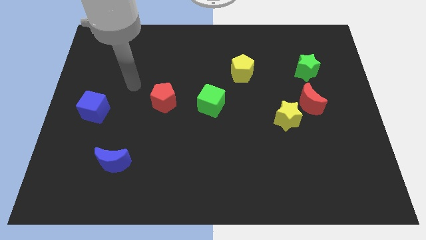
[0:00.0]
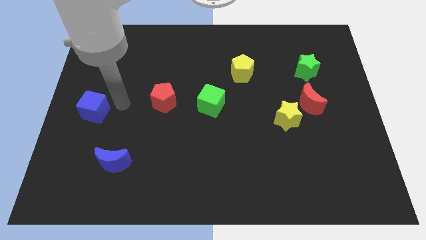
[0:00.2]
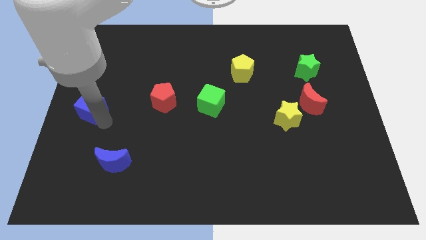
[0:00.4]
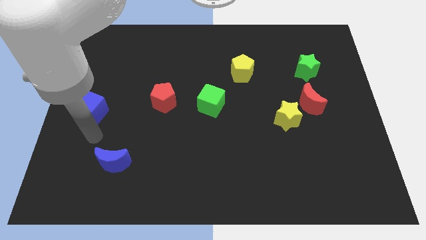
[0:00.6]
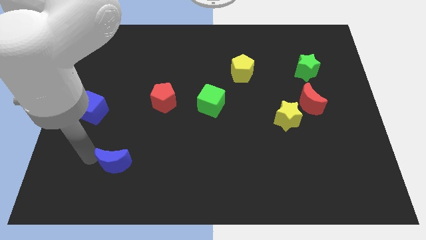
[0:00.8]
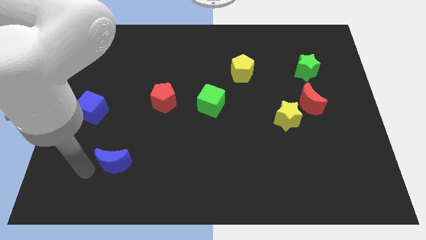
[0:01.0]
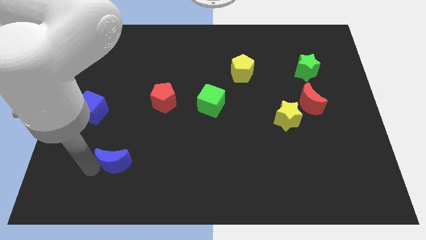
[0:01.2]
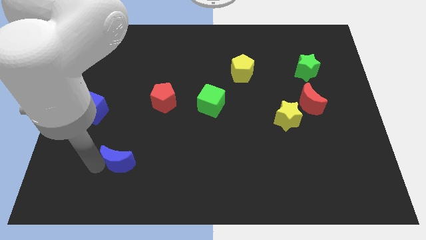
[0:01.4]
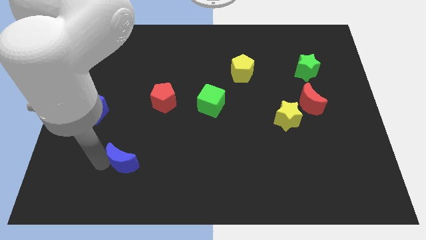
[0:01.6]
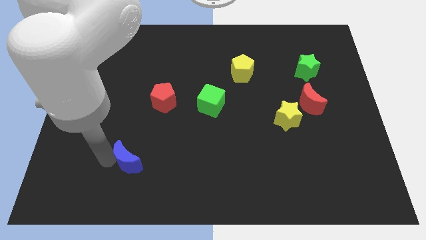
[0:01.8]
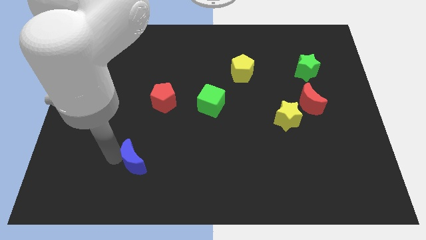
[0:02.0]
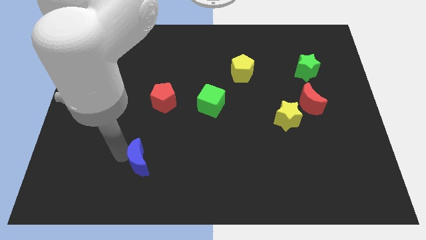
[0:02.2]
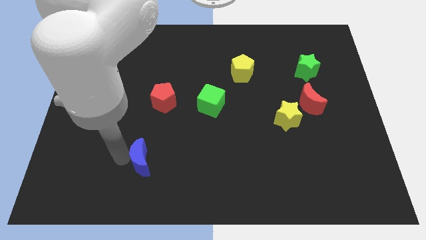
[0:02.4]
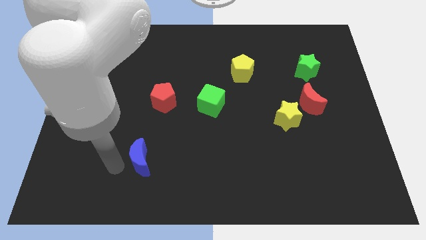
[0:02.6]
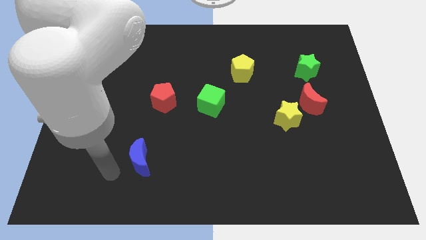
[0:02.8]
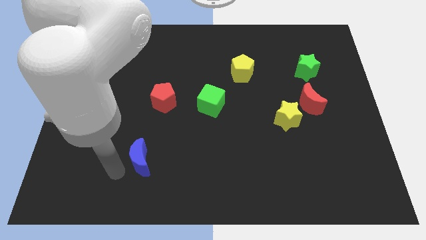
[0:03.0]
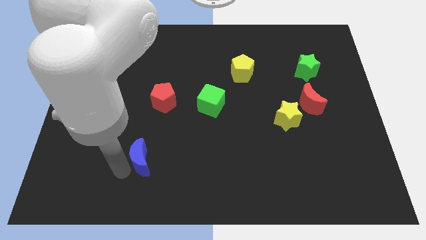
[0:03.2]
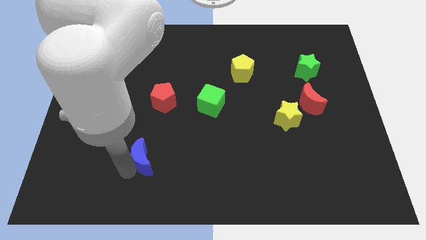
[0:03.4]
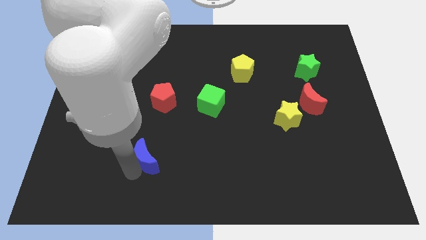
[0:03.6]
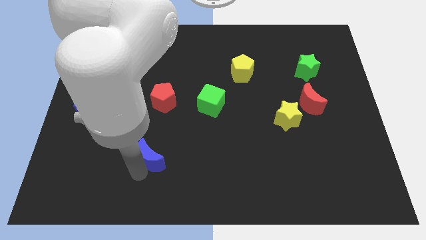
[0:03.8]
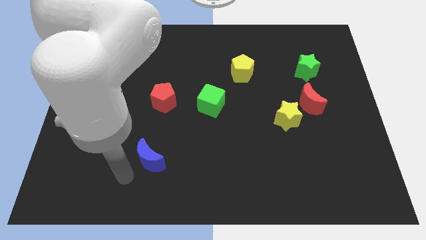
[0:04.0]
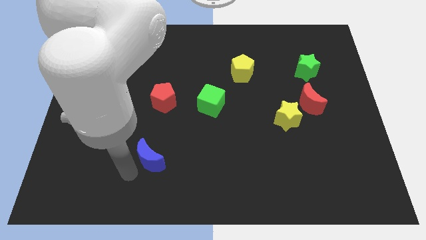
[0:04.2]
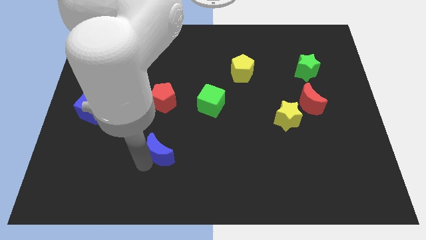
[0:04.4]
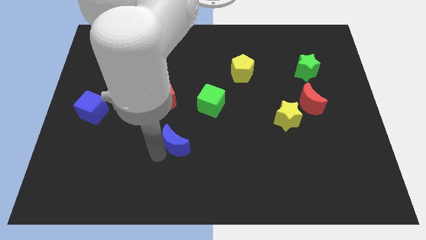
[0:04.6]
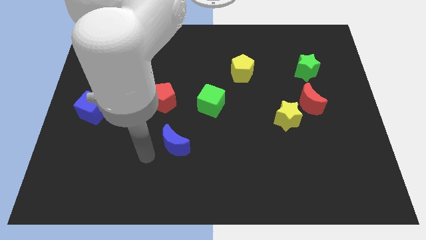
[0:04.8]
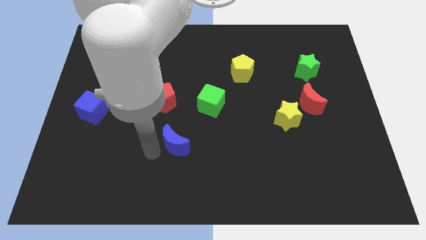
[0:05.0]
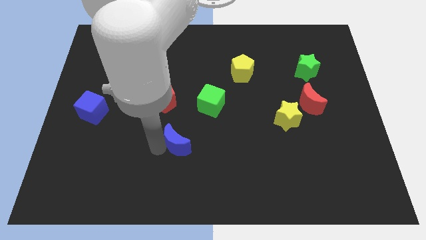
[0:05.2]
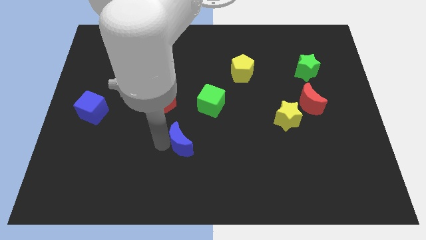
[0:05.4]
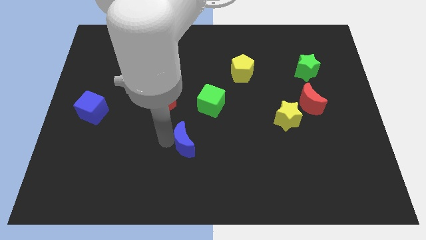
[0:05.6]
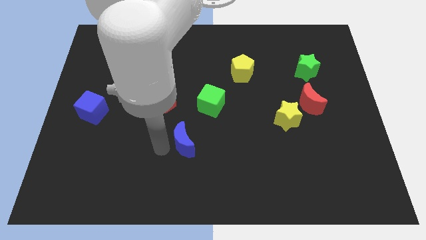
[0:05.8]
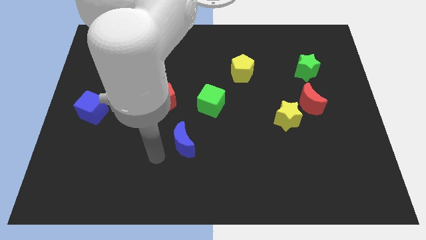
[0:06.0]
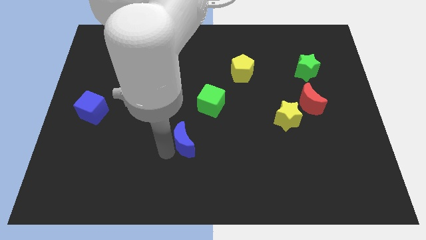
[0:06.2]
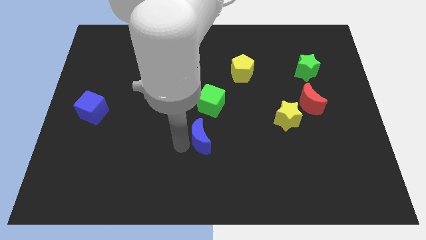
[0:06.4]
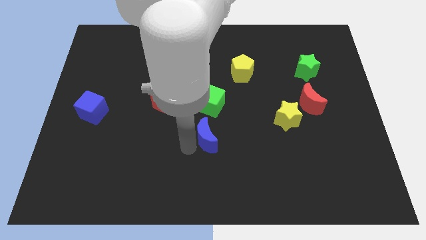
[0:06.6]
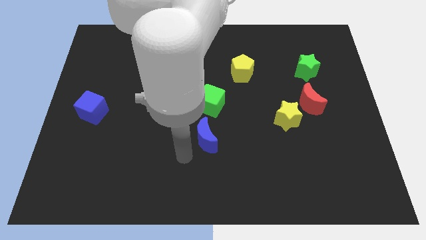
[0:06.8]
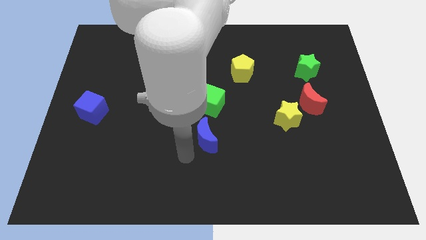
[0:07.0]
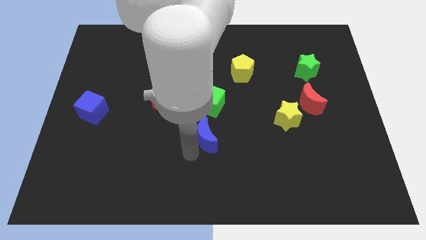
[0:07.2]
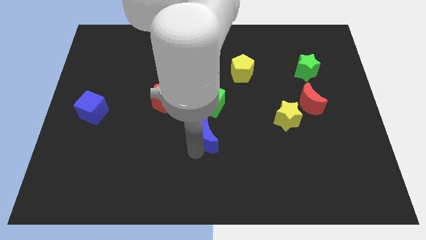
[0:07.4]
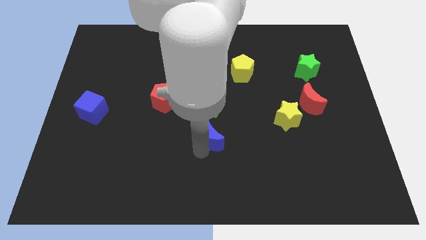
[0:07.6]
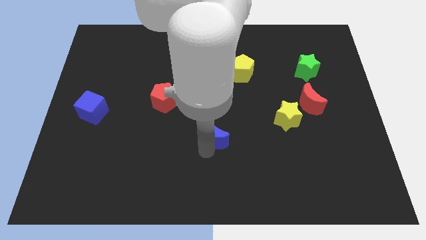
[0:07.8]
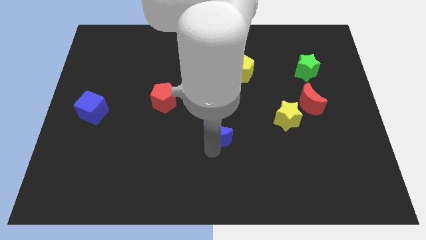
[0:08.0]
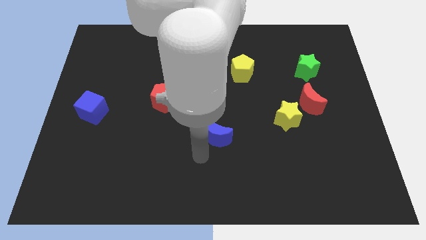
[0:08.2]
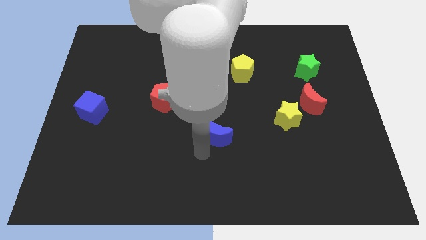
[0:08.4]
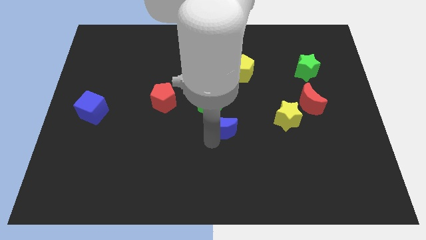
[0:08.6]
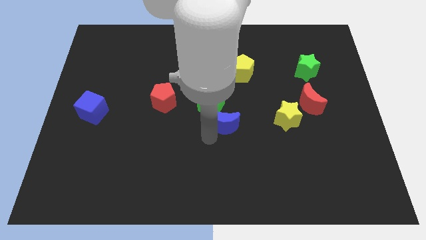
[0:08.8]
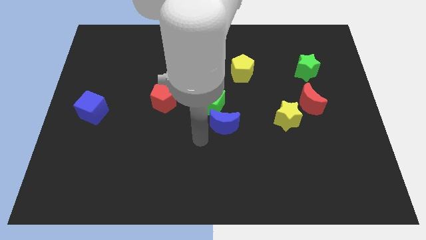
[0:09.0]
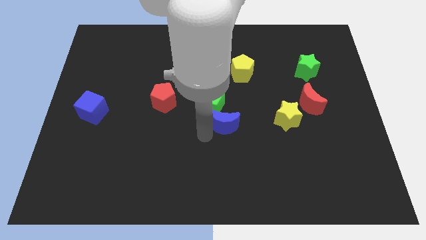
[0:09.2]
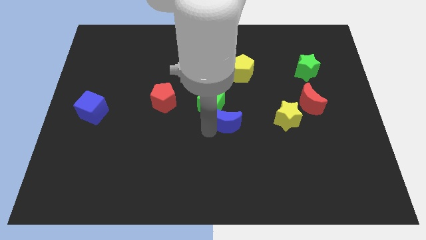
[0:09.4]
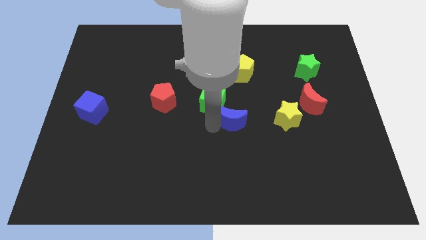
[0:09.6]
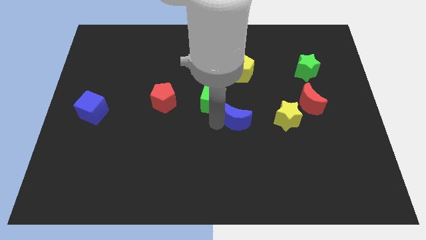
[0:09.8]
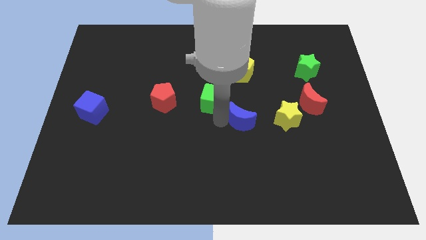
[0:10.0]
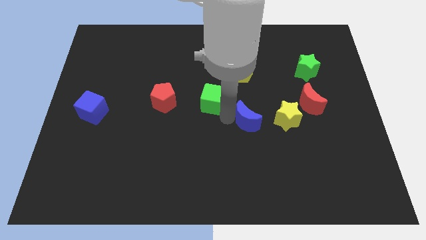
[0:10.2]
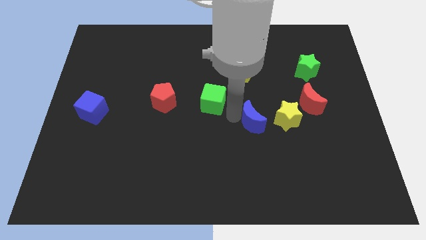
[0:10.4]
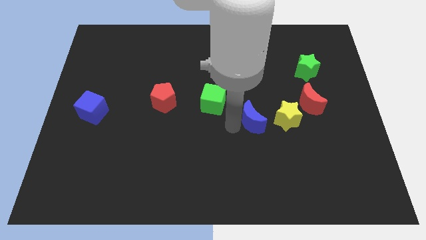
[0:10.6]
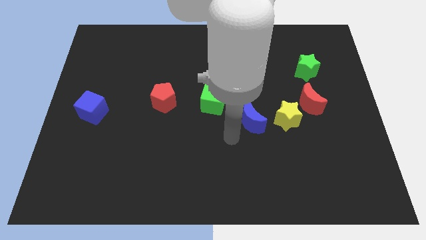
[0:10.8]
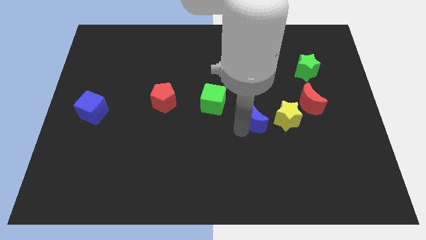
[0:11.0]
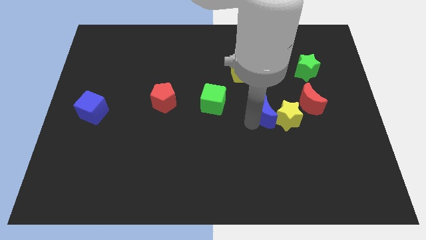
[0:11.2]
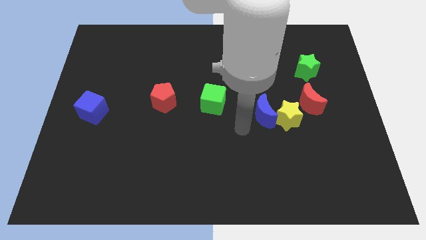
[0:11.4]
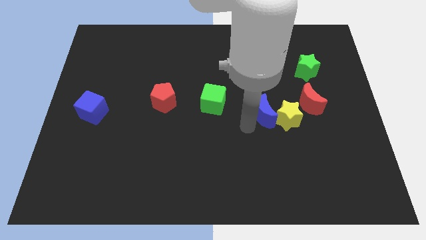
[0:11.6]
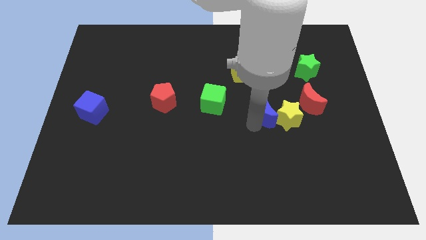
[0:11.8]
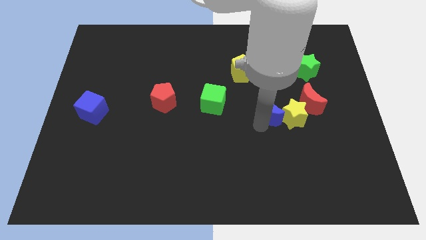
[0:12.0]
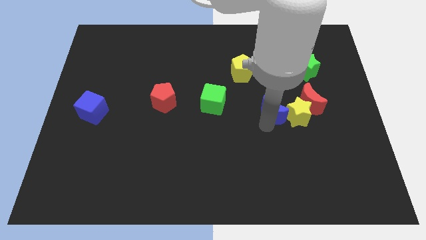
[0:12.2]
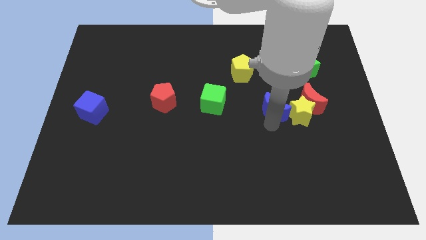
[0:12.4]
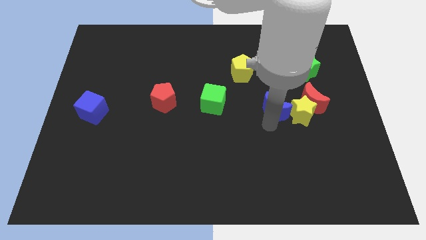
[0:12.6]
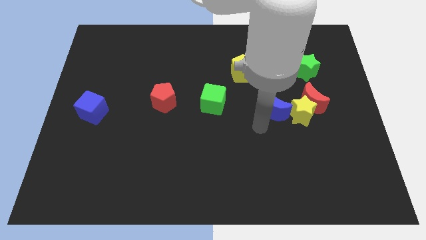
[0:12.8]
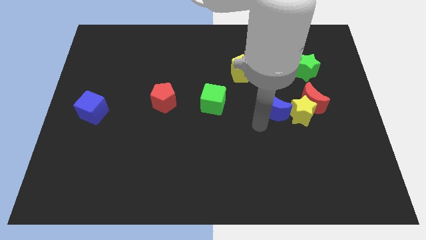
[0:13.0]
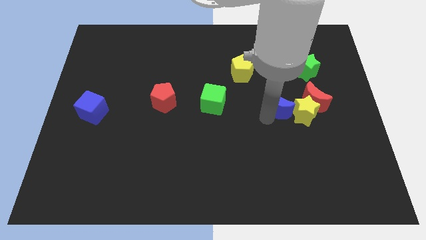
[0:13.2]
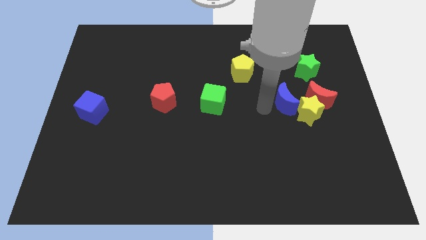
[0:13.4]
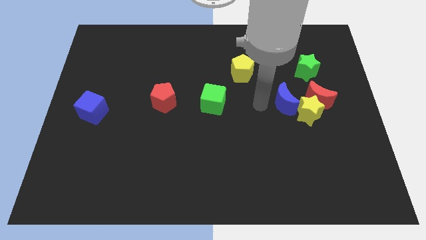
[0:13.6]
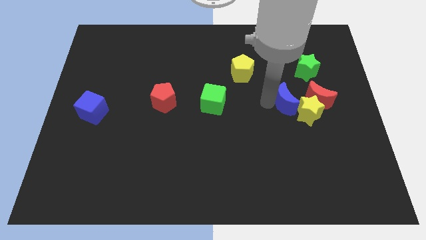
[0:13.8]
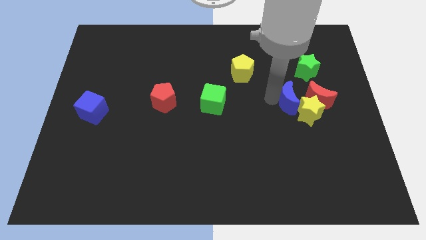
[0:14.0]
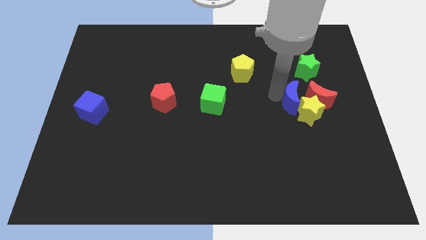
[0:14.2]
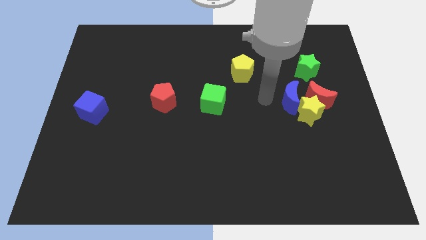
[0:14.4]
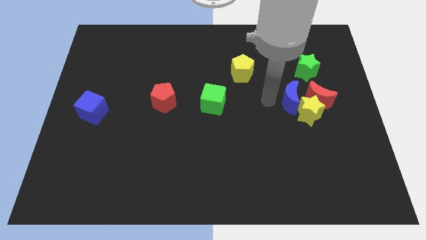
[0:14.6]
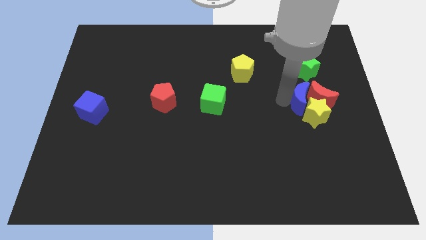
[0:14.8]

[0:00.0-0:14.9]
put the blue moon next to the red moon

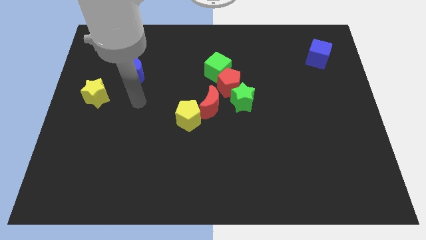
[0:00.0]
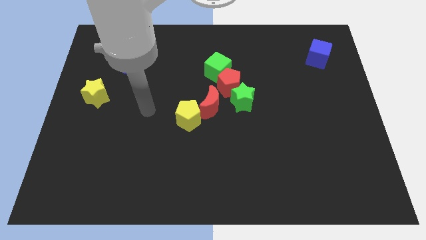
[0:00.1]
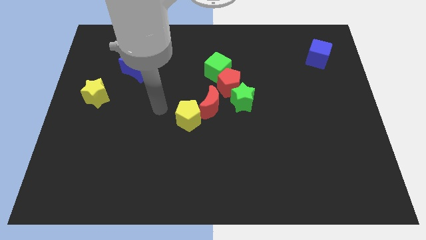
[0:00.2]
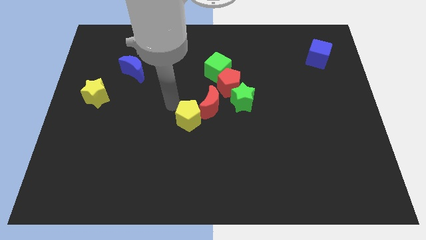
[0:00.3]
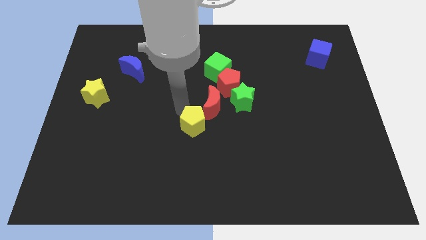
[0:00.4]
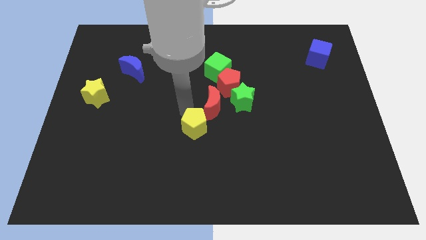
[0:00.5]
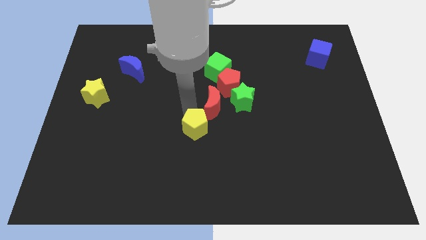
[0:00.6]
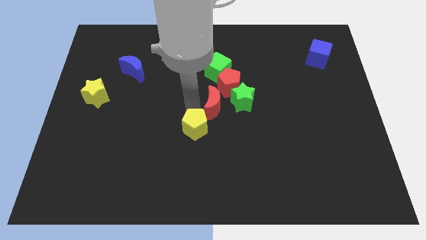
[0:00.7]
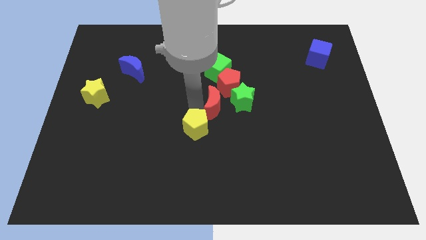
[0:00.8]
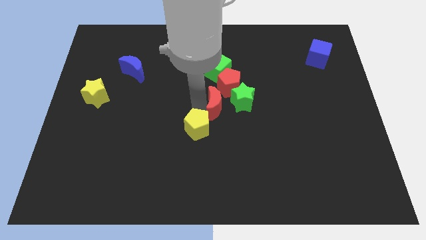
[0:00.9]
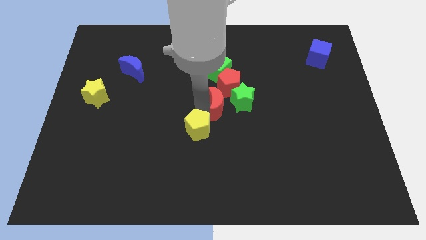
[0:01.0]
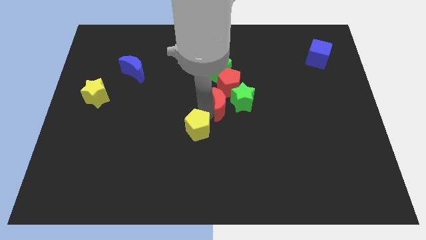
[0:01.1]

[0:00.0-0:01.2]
put the red moon close to the green star
